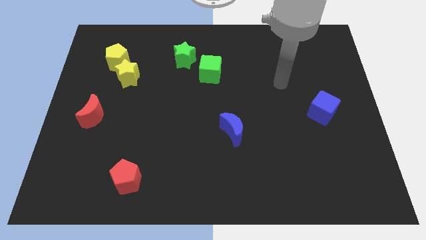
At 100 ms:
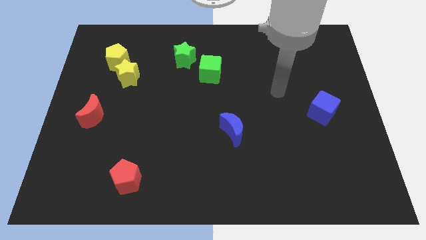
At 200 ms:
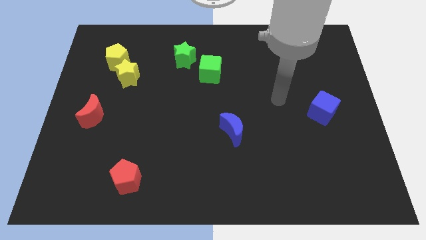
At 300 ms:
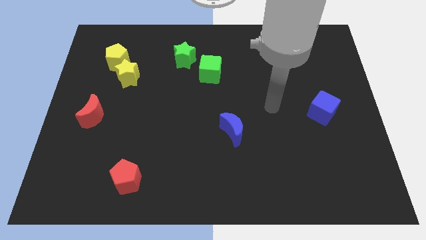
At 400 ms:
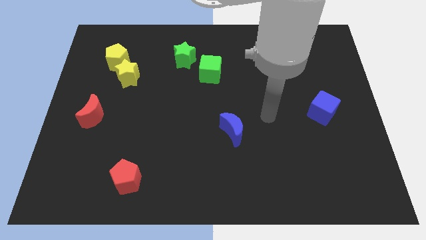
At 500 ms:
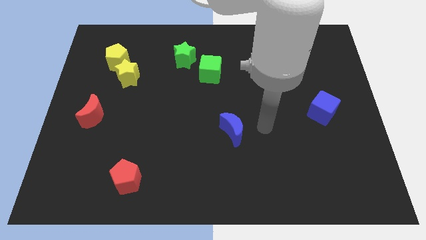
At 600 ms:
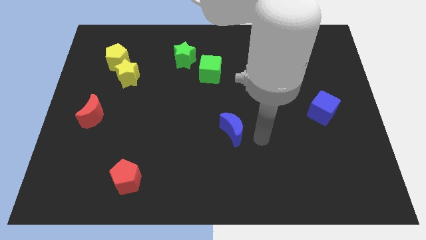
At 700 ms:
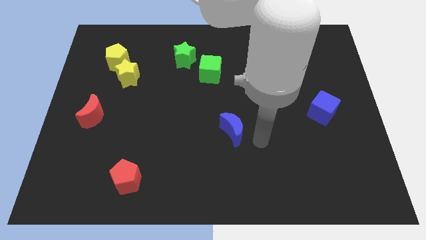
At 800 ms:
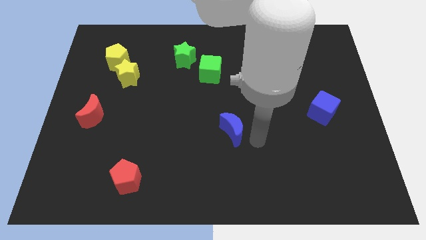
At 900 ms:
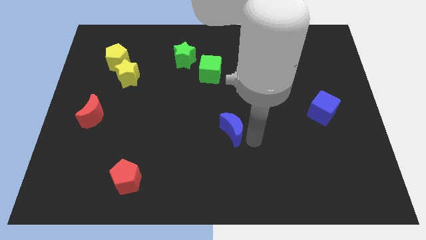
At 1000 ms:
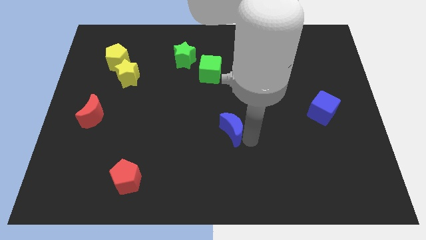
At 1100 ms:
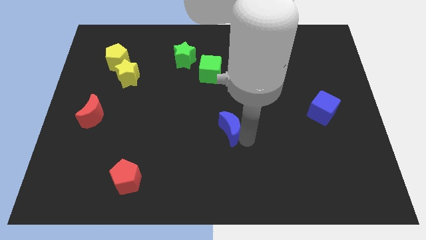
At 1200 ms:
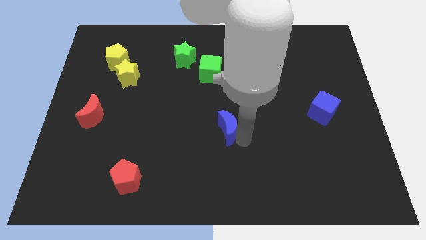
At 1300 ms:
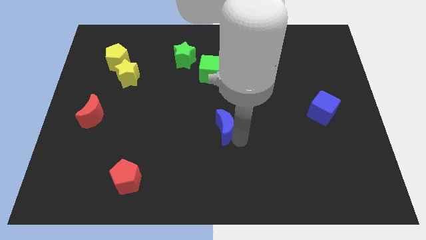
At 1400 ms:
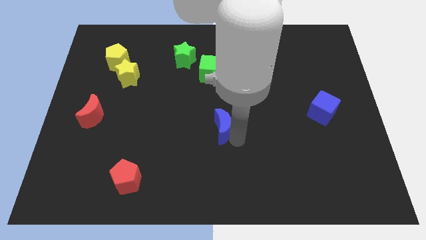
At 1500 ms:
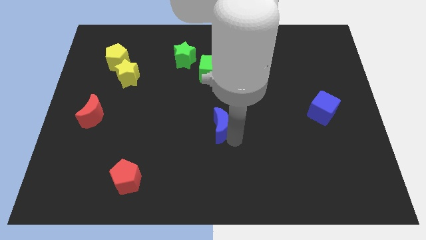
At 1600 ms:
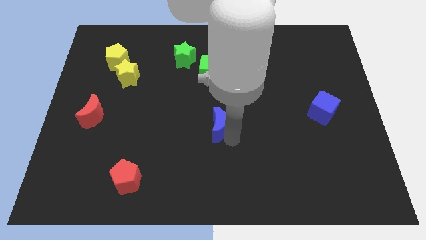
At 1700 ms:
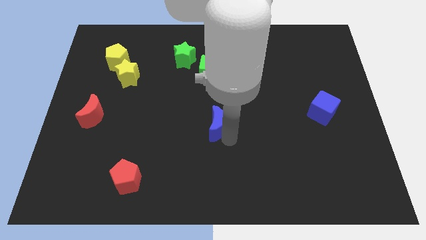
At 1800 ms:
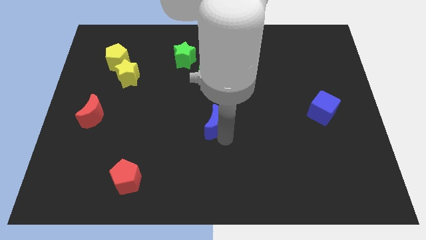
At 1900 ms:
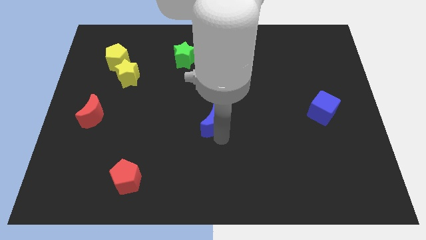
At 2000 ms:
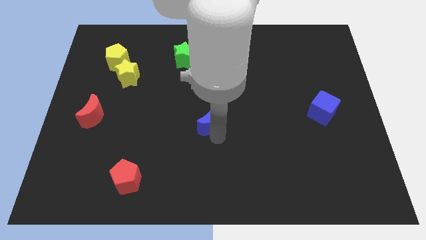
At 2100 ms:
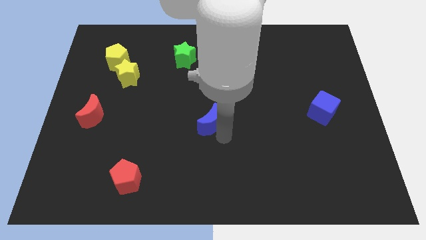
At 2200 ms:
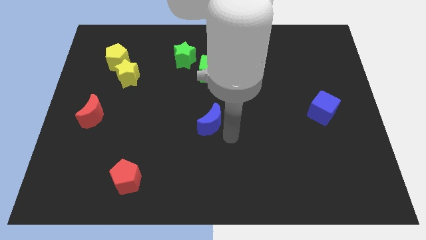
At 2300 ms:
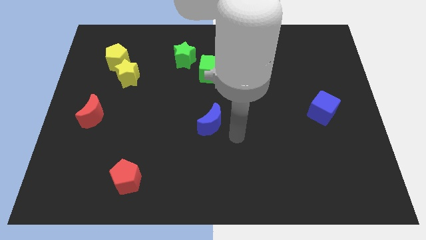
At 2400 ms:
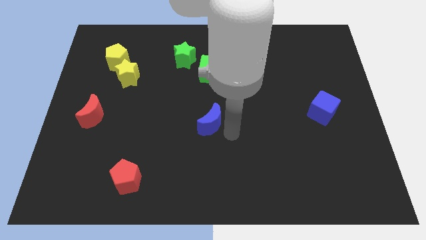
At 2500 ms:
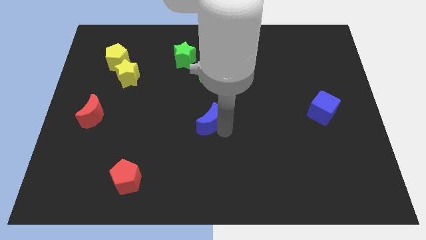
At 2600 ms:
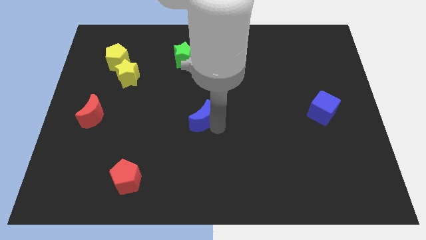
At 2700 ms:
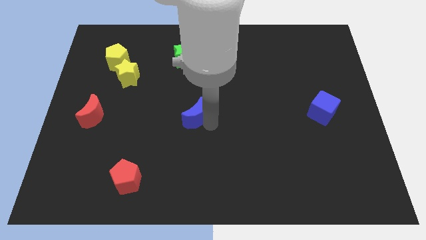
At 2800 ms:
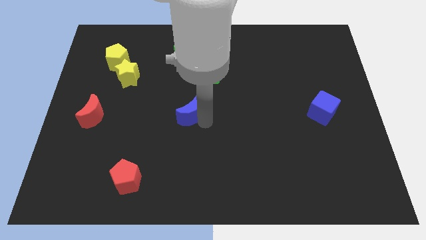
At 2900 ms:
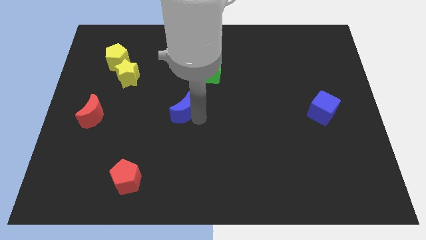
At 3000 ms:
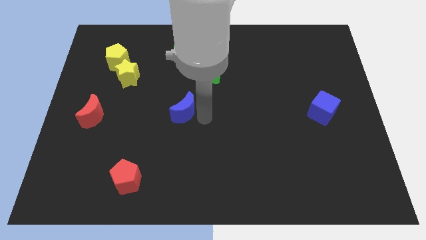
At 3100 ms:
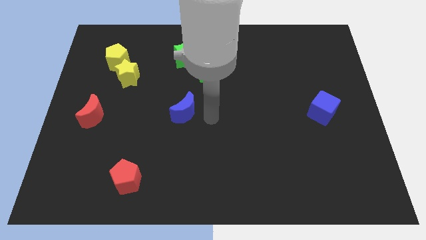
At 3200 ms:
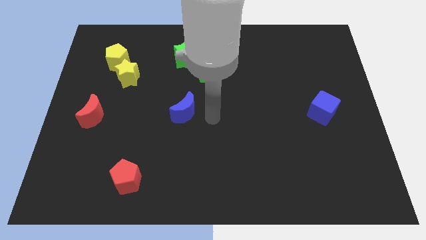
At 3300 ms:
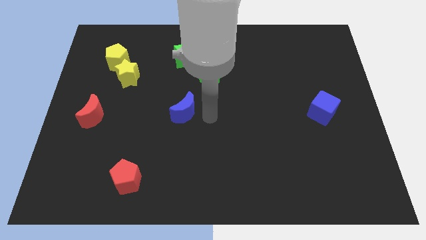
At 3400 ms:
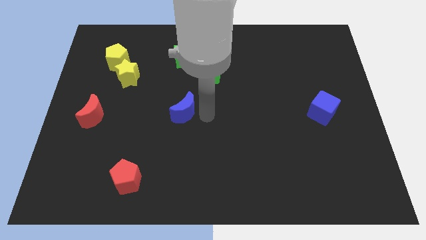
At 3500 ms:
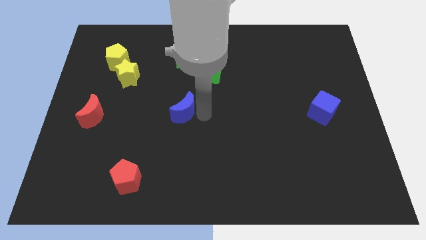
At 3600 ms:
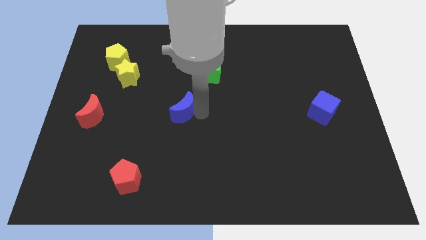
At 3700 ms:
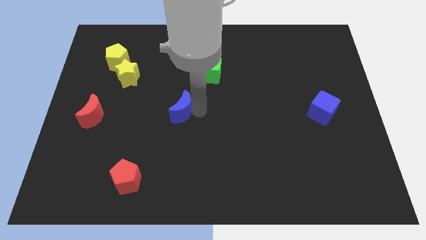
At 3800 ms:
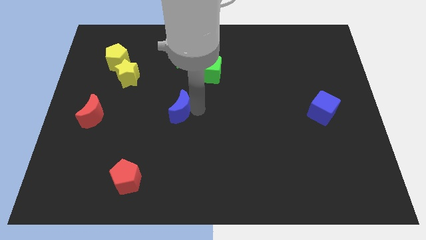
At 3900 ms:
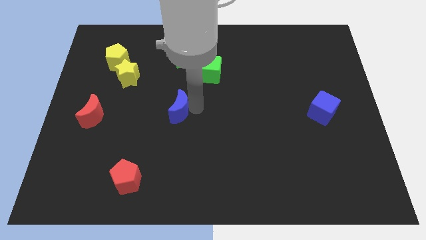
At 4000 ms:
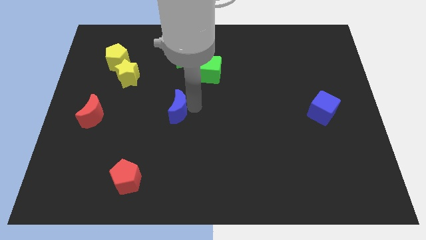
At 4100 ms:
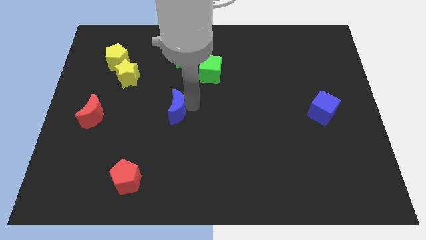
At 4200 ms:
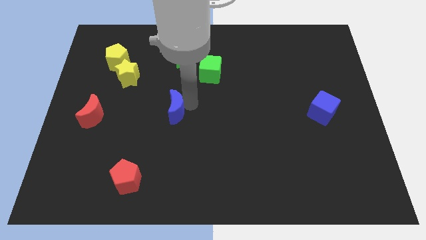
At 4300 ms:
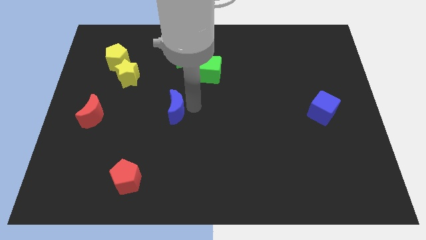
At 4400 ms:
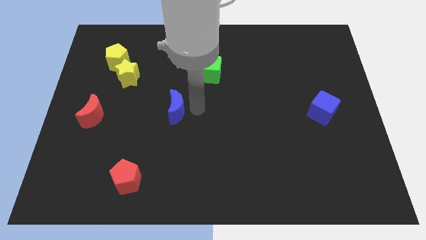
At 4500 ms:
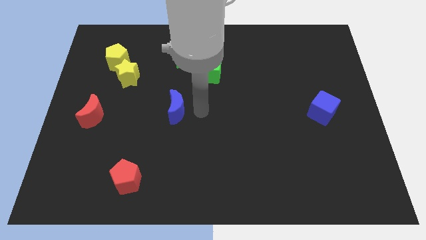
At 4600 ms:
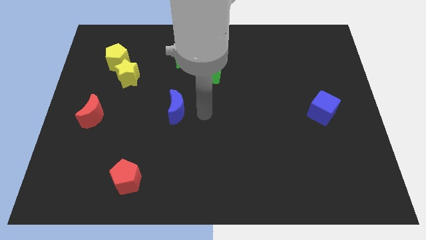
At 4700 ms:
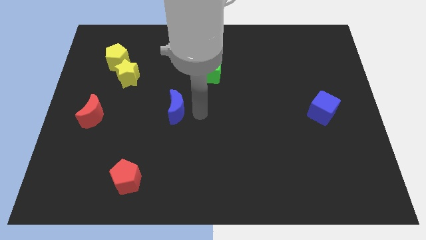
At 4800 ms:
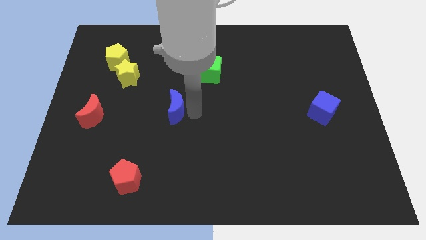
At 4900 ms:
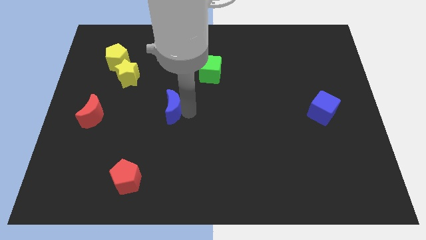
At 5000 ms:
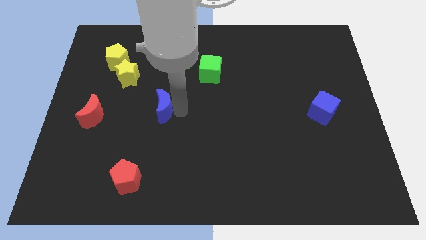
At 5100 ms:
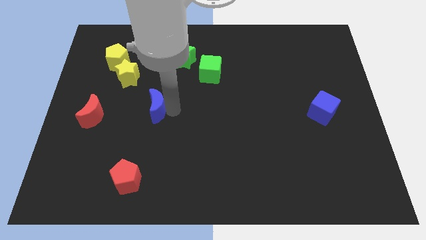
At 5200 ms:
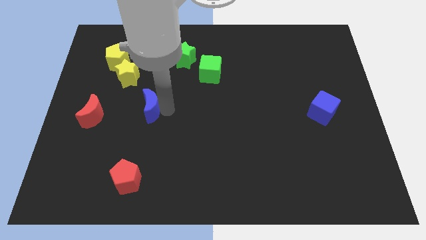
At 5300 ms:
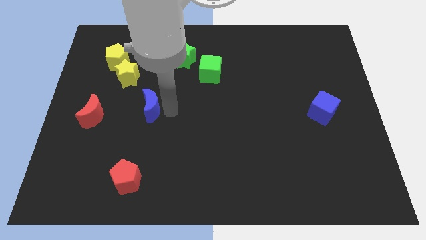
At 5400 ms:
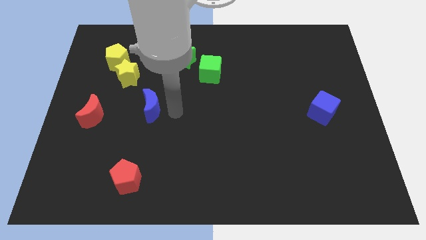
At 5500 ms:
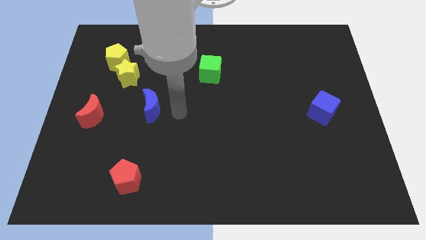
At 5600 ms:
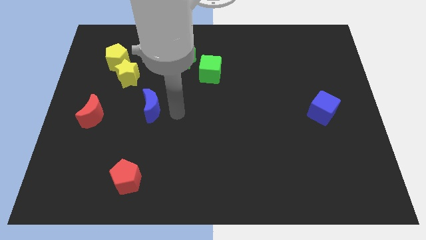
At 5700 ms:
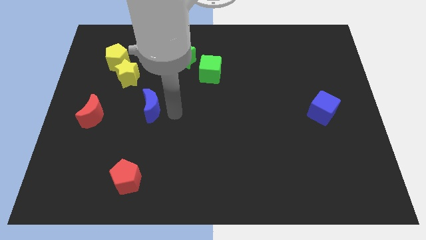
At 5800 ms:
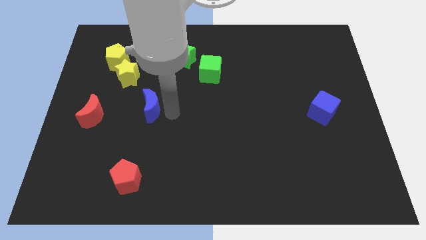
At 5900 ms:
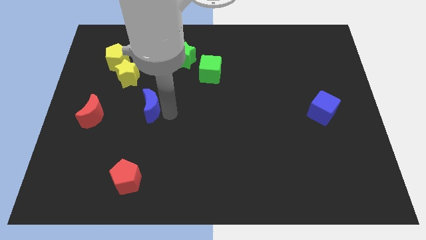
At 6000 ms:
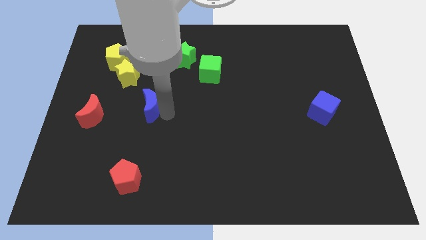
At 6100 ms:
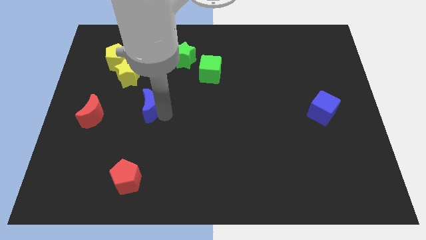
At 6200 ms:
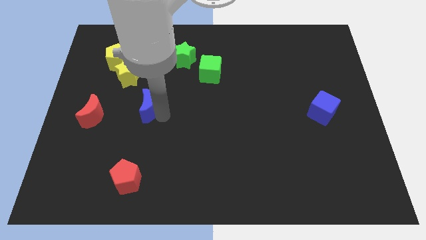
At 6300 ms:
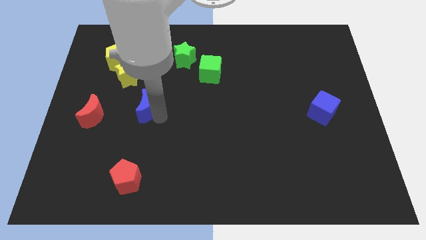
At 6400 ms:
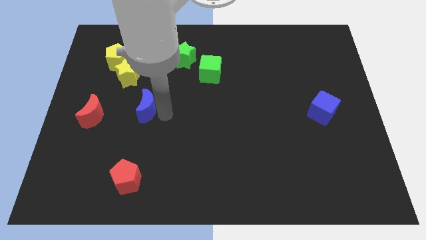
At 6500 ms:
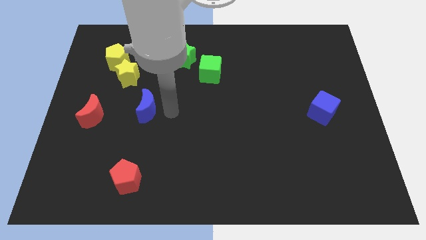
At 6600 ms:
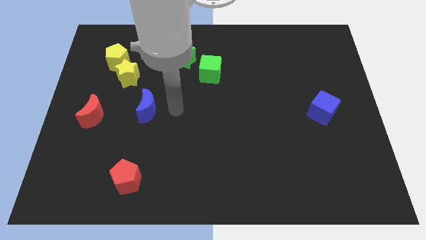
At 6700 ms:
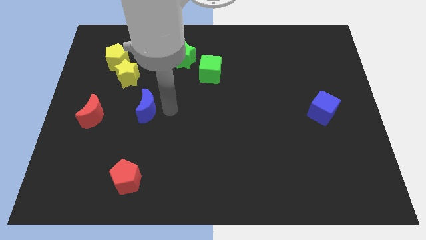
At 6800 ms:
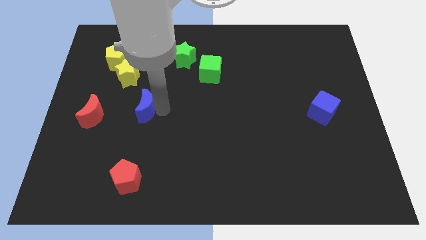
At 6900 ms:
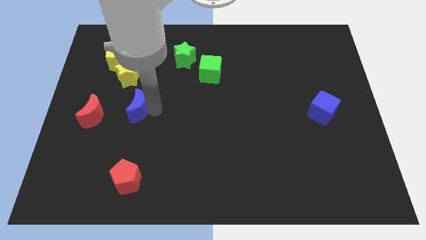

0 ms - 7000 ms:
push the blue moon below the yellow star
